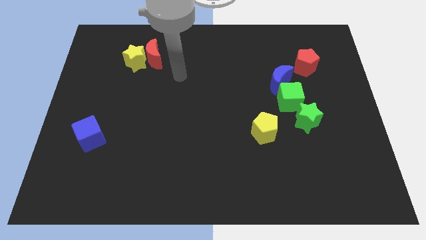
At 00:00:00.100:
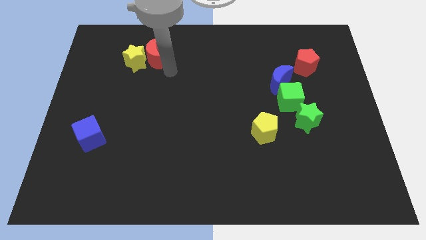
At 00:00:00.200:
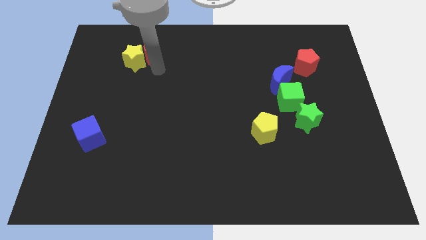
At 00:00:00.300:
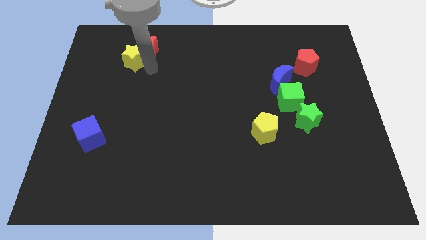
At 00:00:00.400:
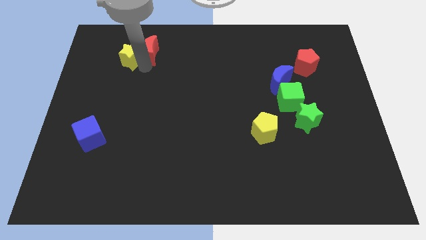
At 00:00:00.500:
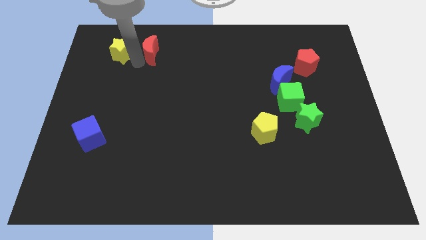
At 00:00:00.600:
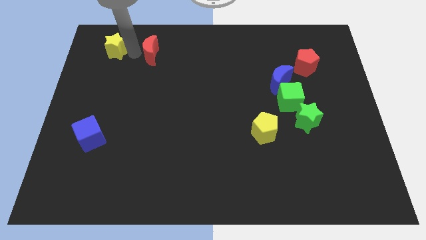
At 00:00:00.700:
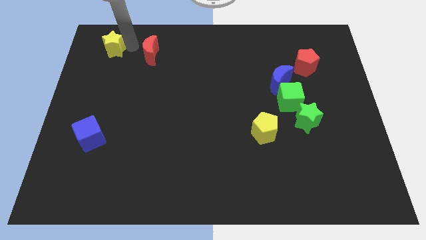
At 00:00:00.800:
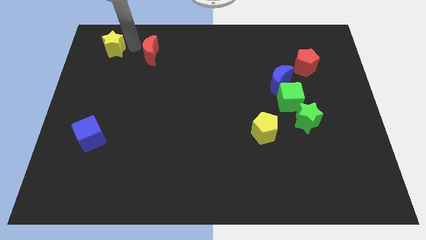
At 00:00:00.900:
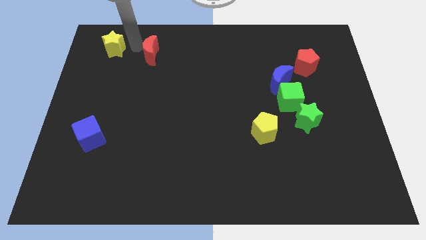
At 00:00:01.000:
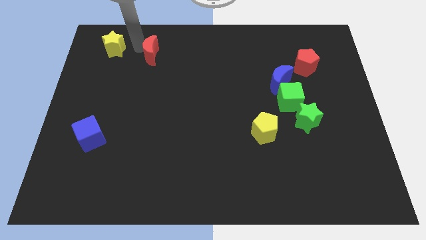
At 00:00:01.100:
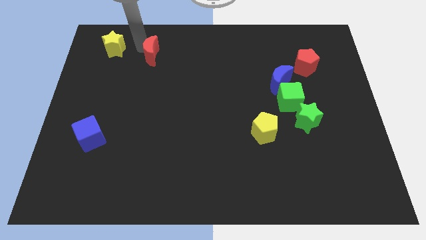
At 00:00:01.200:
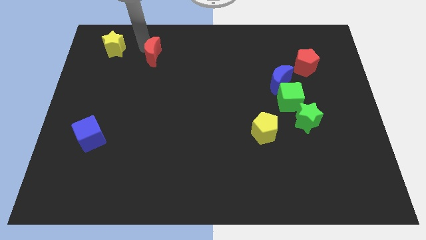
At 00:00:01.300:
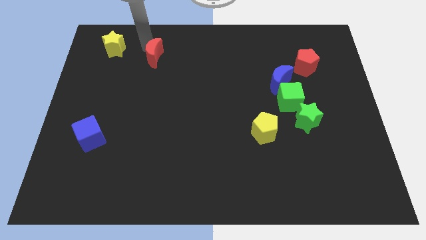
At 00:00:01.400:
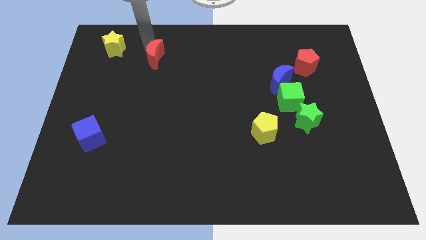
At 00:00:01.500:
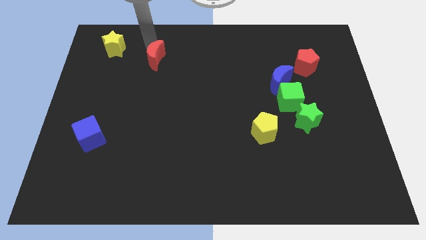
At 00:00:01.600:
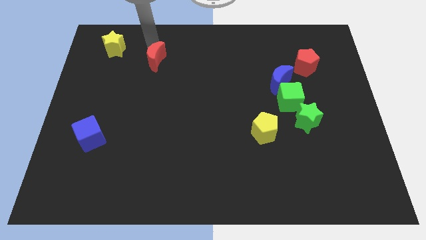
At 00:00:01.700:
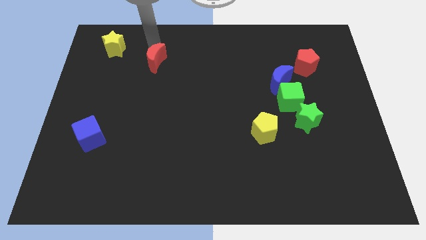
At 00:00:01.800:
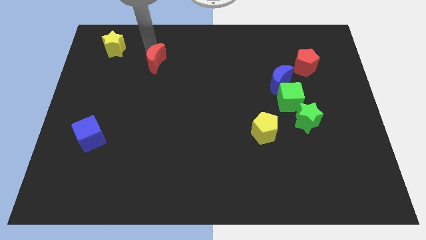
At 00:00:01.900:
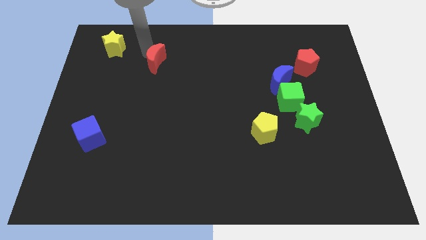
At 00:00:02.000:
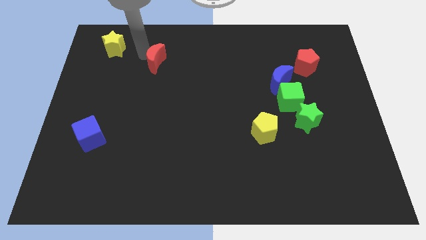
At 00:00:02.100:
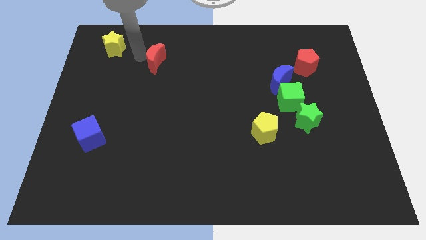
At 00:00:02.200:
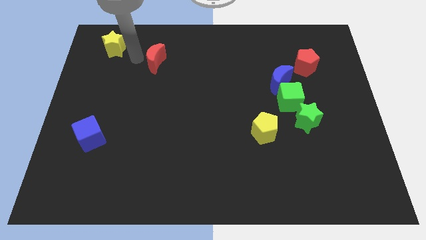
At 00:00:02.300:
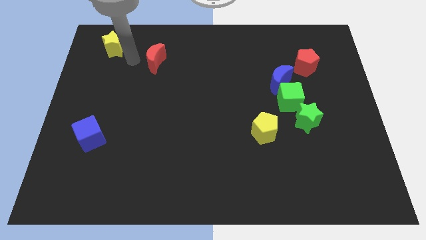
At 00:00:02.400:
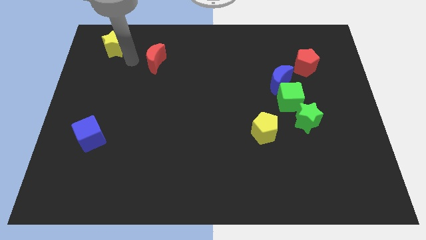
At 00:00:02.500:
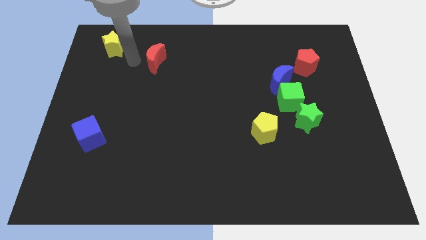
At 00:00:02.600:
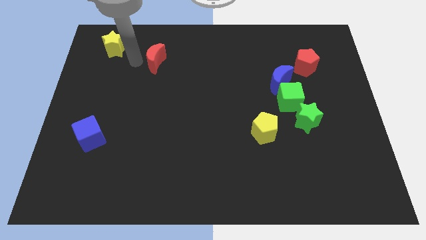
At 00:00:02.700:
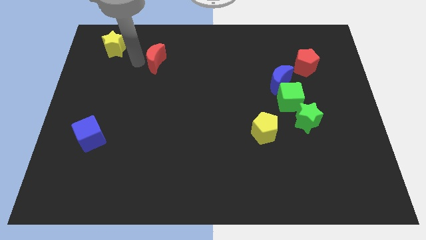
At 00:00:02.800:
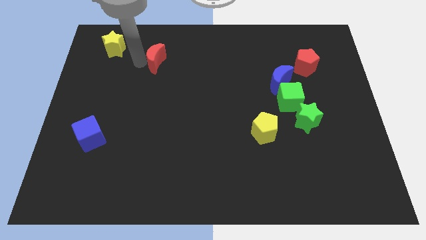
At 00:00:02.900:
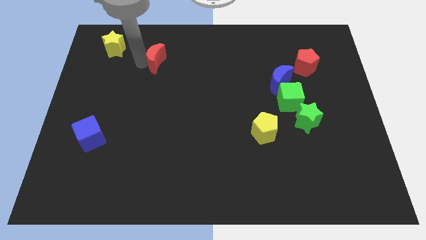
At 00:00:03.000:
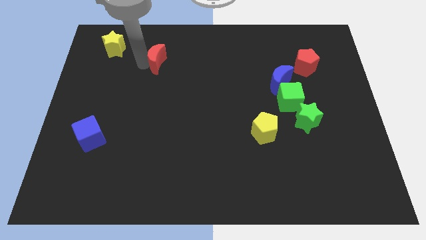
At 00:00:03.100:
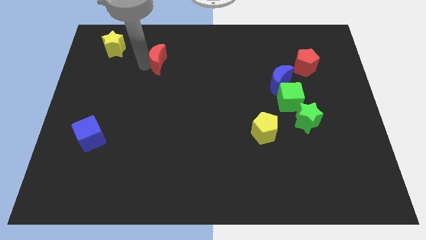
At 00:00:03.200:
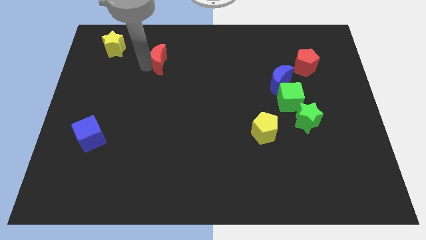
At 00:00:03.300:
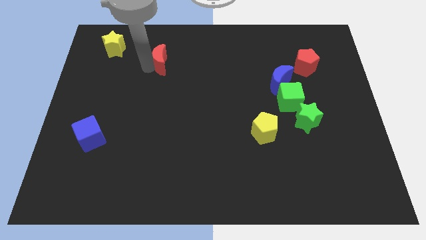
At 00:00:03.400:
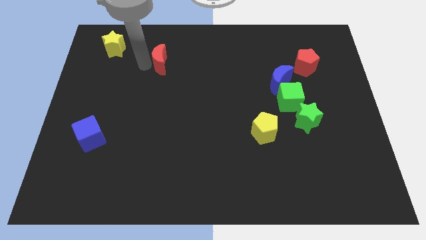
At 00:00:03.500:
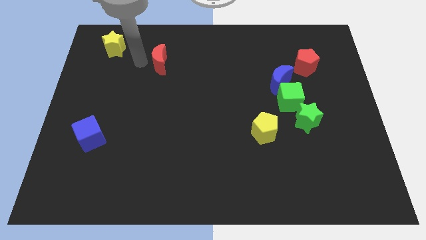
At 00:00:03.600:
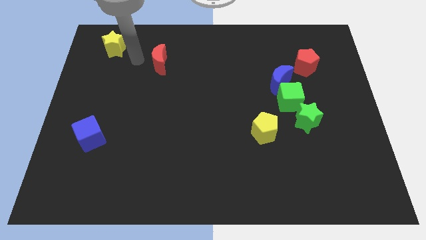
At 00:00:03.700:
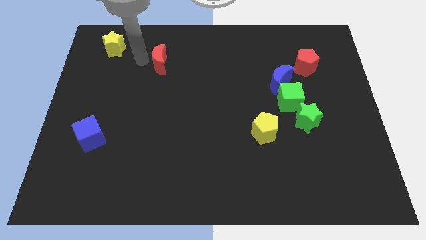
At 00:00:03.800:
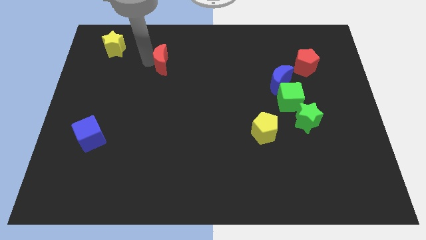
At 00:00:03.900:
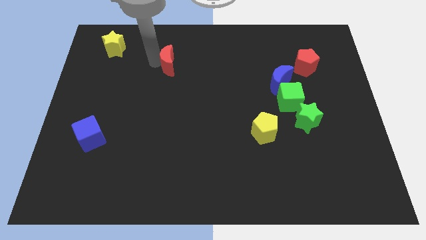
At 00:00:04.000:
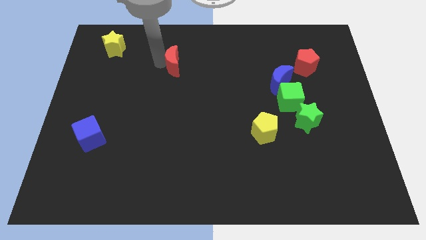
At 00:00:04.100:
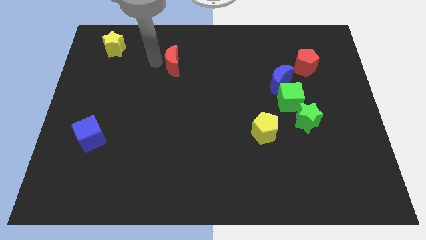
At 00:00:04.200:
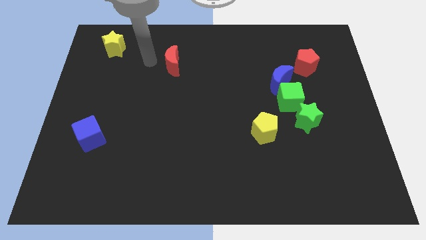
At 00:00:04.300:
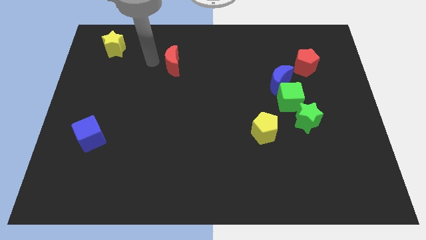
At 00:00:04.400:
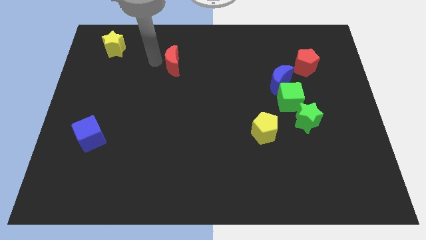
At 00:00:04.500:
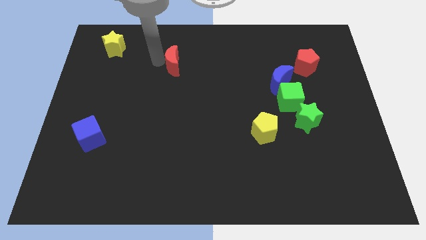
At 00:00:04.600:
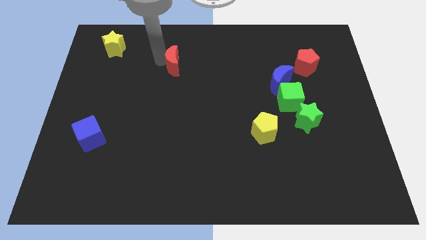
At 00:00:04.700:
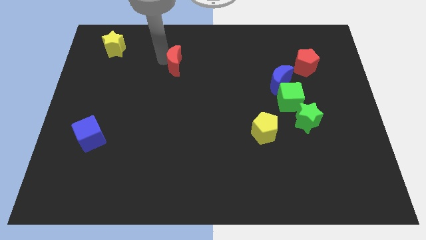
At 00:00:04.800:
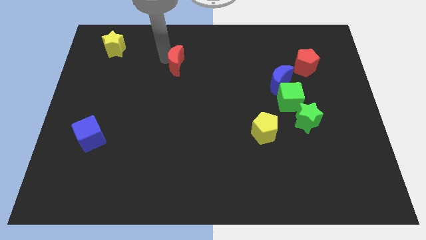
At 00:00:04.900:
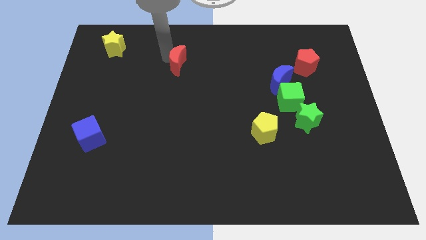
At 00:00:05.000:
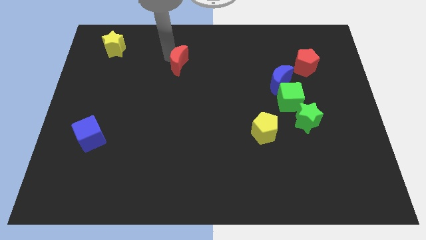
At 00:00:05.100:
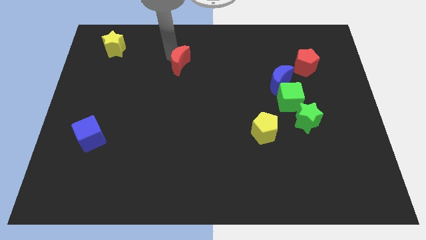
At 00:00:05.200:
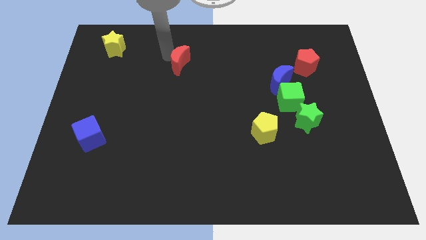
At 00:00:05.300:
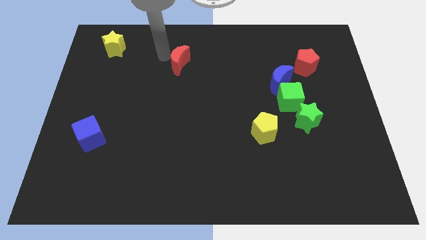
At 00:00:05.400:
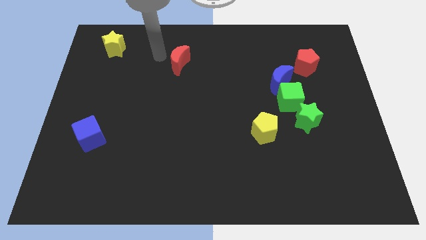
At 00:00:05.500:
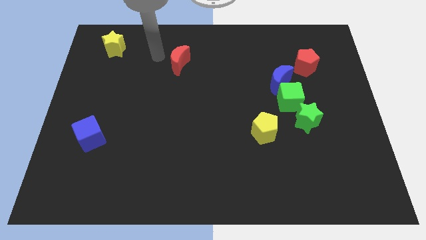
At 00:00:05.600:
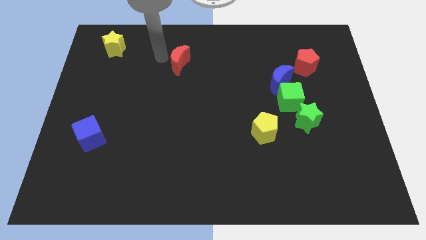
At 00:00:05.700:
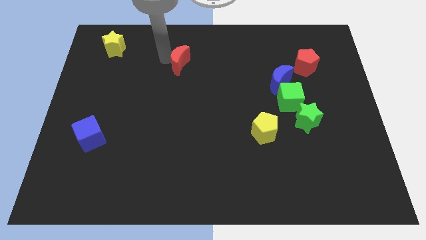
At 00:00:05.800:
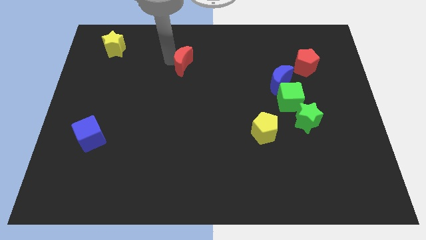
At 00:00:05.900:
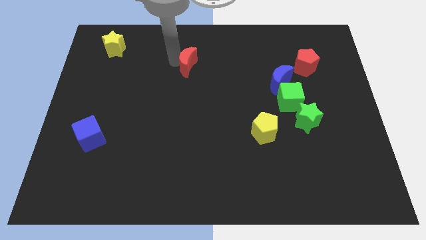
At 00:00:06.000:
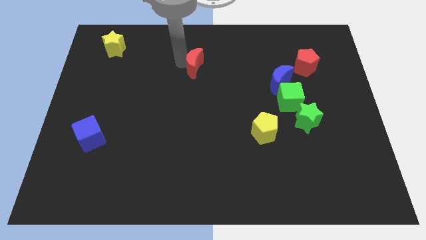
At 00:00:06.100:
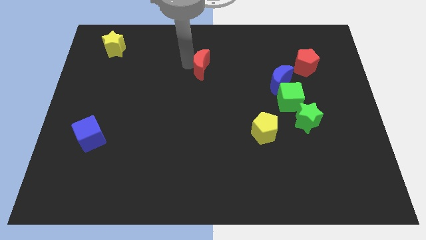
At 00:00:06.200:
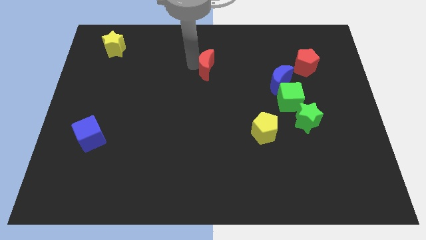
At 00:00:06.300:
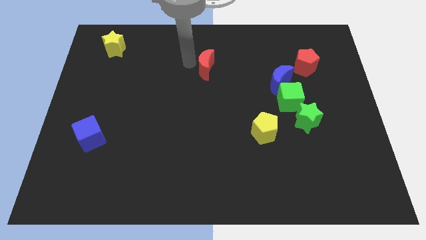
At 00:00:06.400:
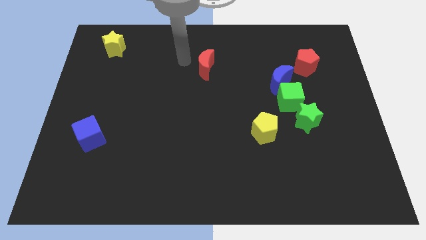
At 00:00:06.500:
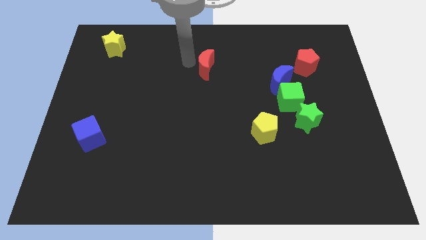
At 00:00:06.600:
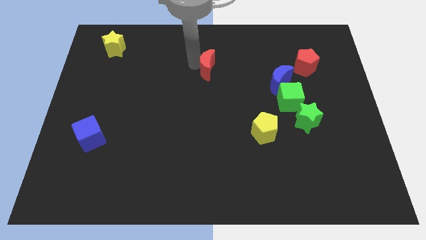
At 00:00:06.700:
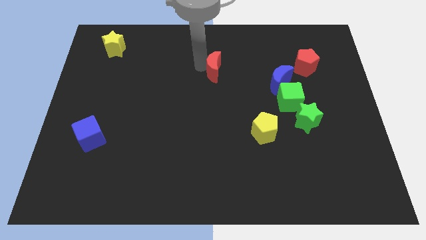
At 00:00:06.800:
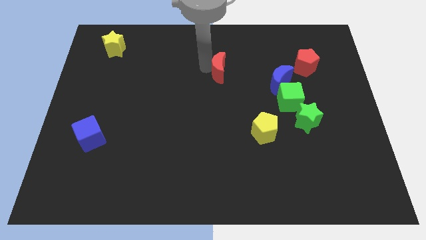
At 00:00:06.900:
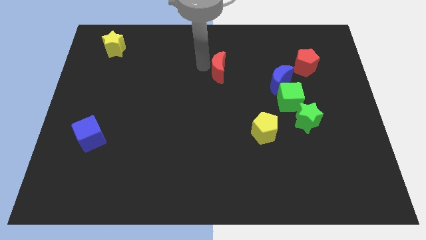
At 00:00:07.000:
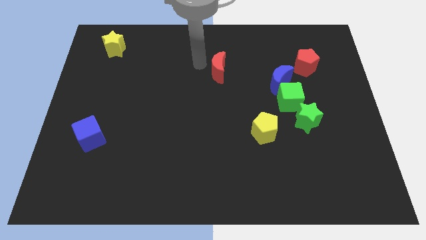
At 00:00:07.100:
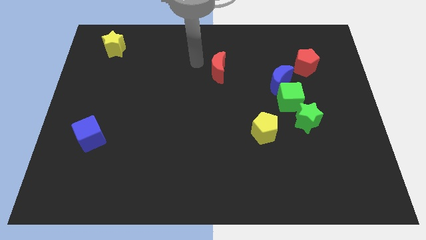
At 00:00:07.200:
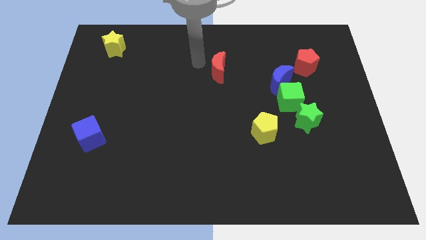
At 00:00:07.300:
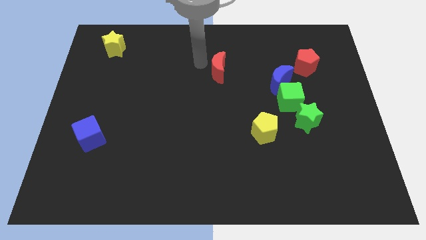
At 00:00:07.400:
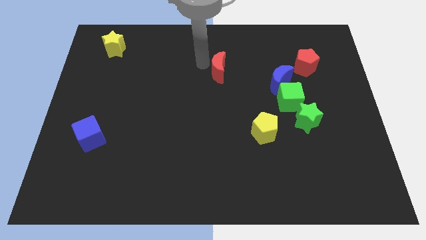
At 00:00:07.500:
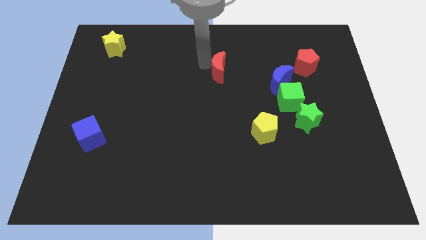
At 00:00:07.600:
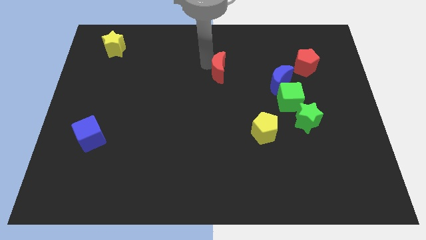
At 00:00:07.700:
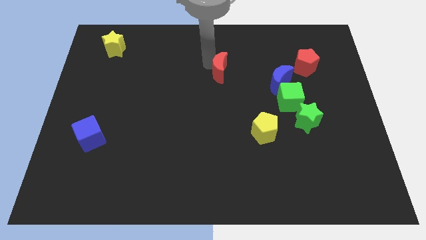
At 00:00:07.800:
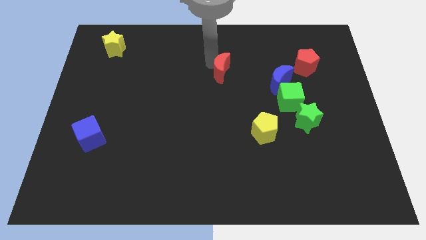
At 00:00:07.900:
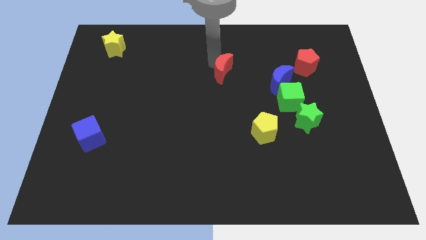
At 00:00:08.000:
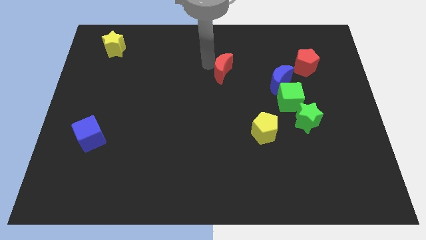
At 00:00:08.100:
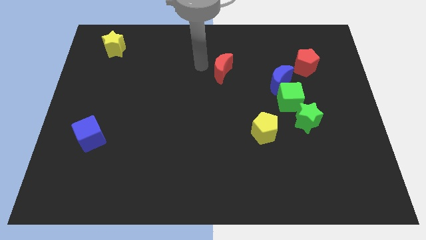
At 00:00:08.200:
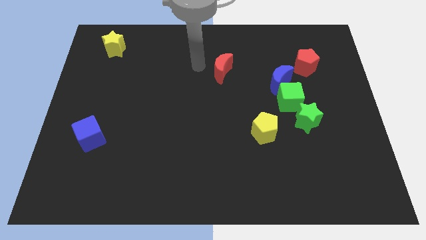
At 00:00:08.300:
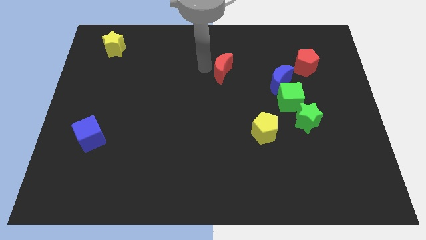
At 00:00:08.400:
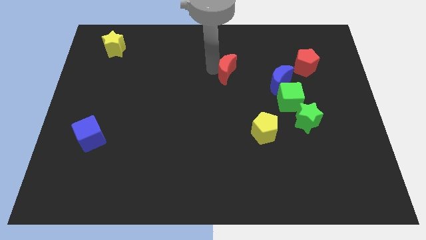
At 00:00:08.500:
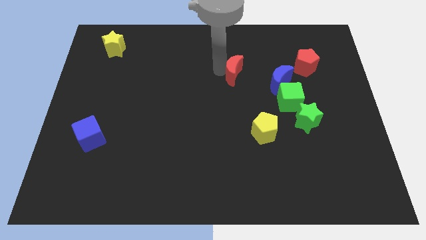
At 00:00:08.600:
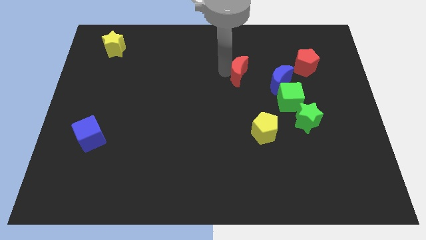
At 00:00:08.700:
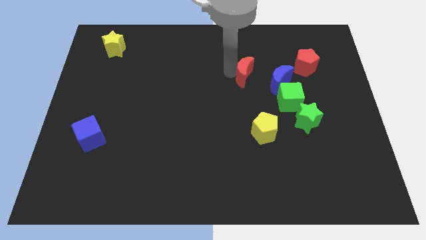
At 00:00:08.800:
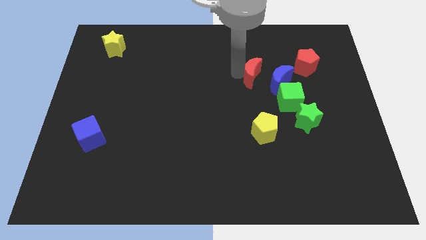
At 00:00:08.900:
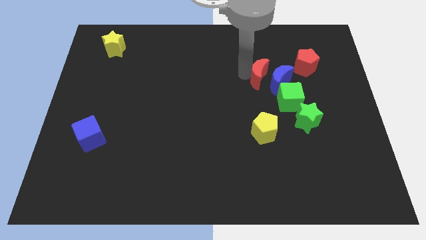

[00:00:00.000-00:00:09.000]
put the red moon to the blue moon
